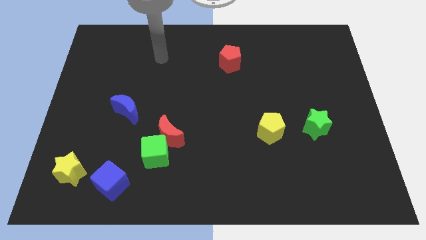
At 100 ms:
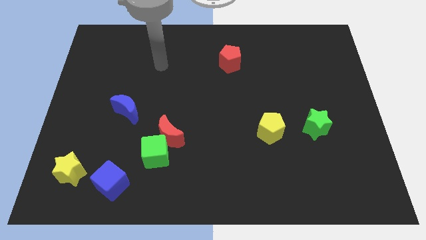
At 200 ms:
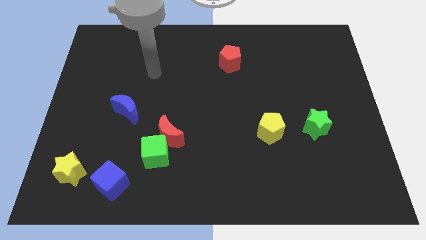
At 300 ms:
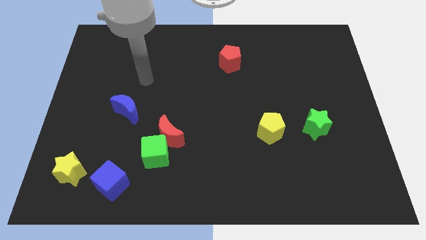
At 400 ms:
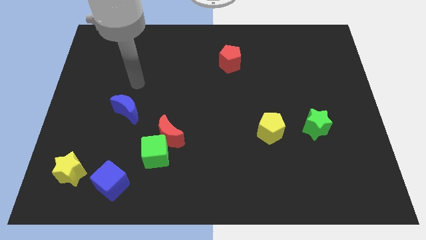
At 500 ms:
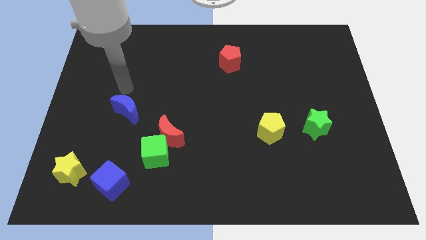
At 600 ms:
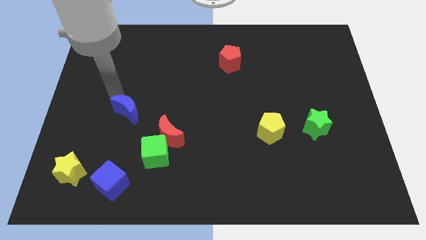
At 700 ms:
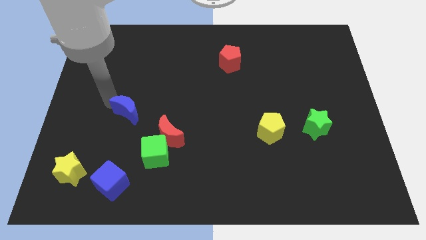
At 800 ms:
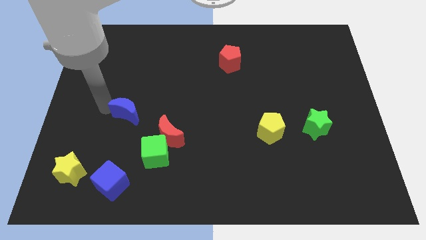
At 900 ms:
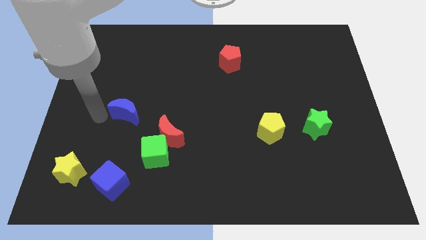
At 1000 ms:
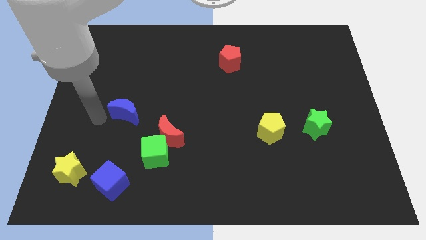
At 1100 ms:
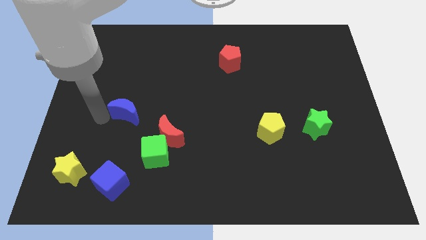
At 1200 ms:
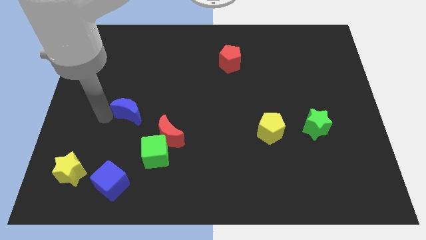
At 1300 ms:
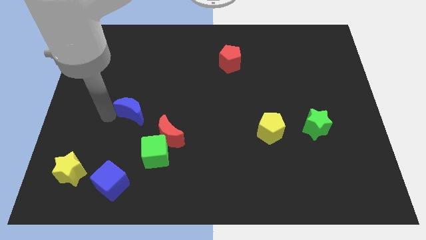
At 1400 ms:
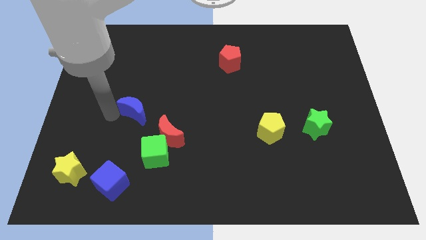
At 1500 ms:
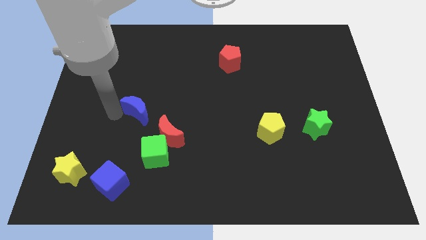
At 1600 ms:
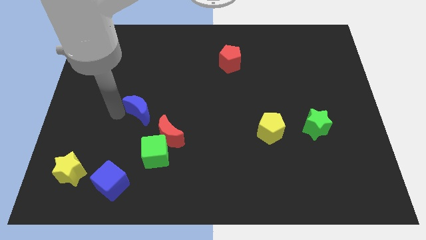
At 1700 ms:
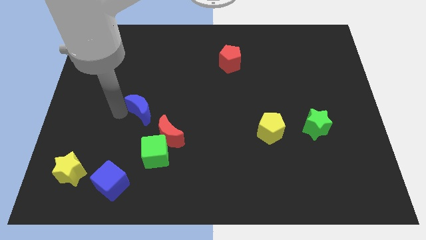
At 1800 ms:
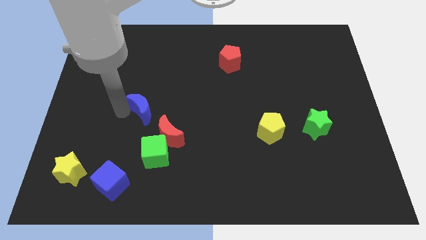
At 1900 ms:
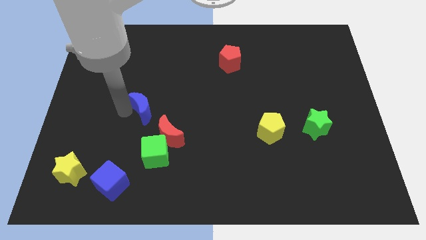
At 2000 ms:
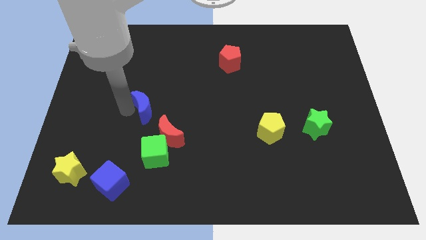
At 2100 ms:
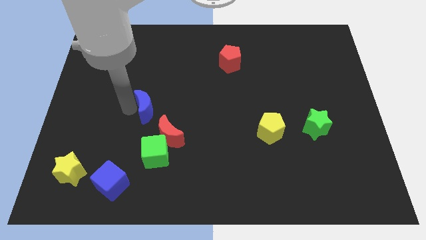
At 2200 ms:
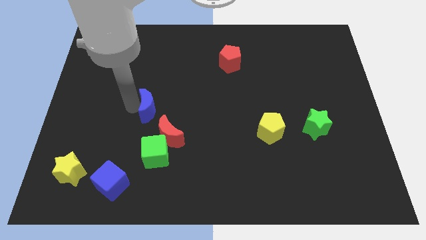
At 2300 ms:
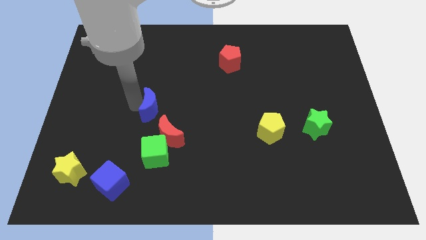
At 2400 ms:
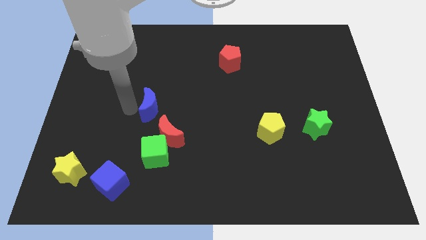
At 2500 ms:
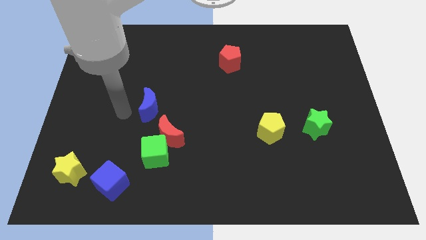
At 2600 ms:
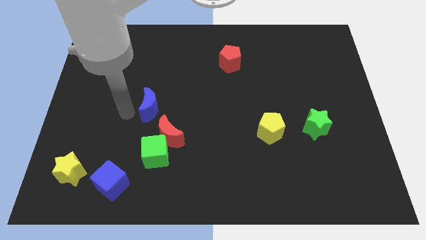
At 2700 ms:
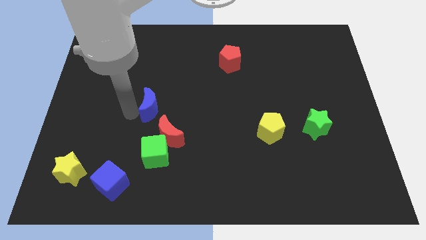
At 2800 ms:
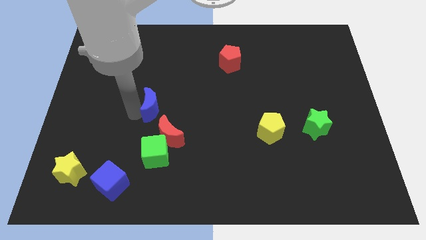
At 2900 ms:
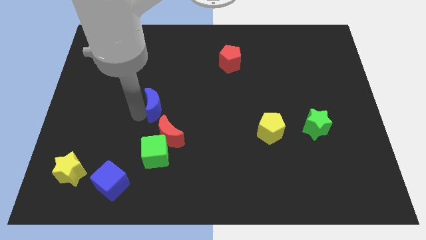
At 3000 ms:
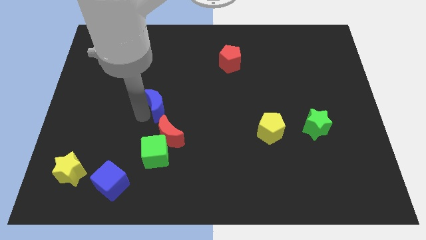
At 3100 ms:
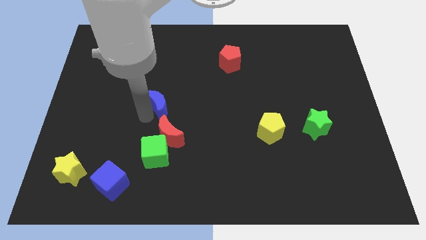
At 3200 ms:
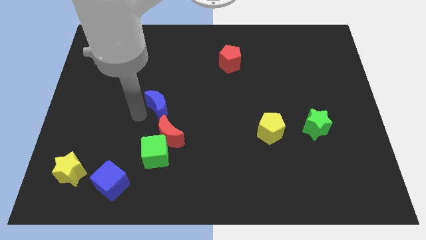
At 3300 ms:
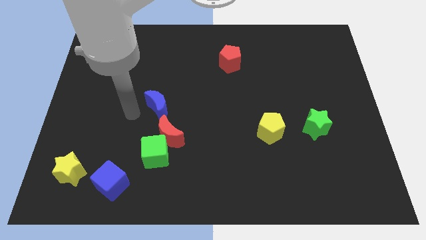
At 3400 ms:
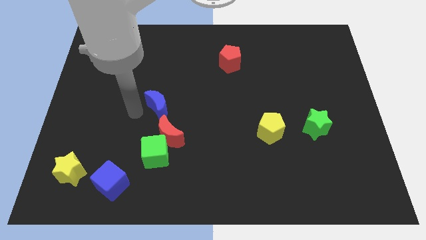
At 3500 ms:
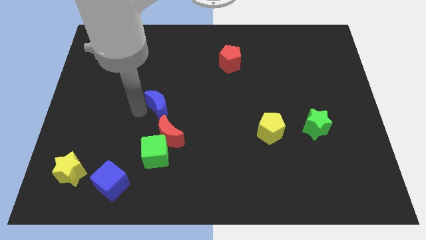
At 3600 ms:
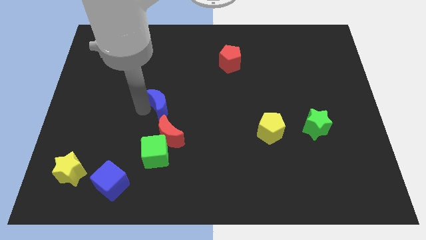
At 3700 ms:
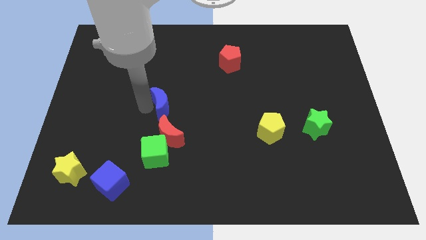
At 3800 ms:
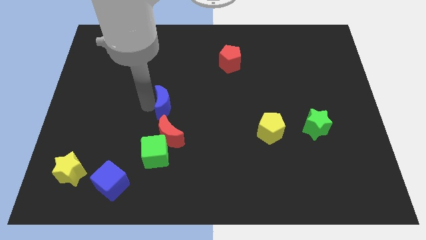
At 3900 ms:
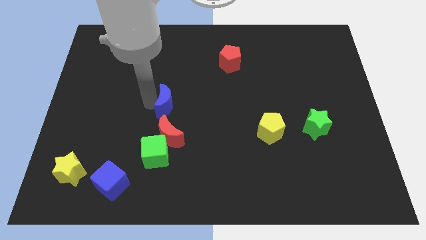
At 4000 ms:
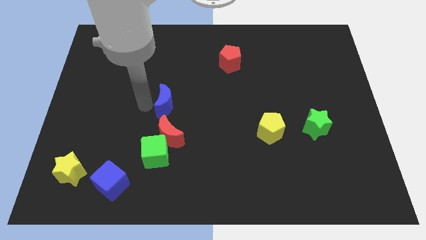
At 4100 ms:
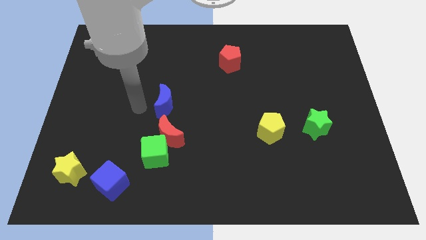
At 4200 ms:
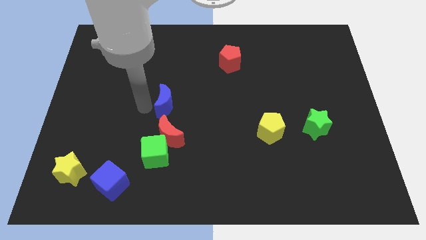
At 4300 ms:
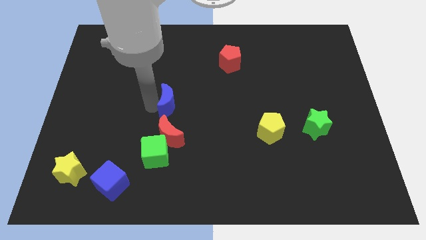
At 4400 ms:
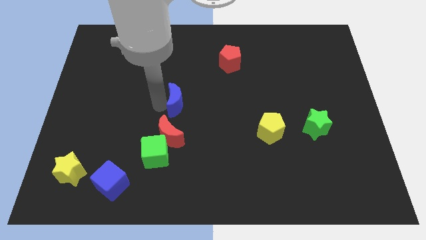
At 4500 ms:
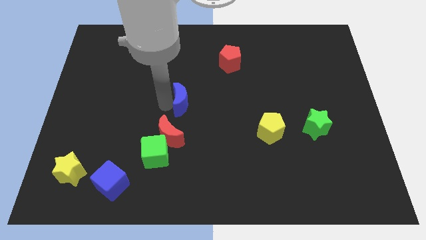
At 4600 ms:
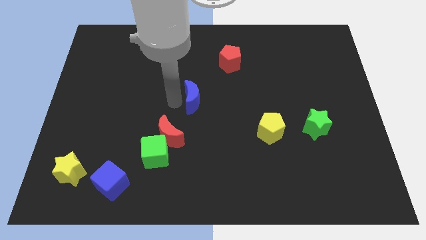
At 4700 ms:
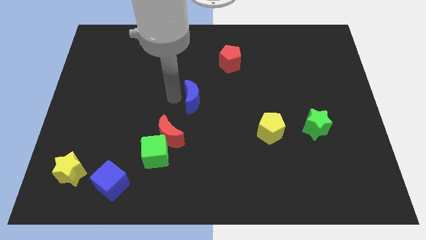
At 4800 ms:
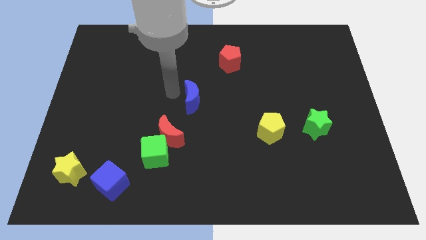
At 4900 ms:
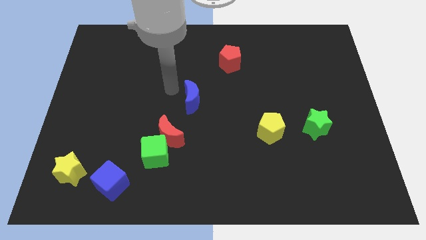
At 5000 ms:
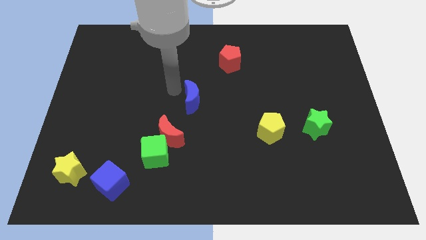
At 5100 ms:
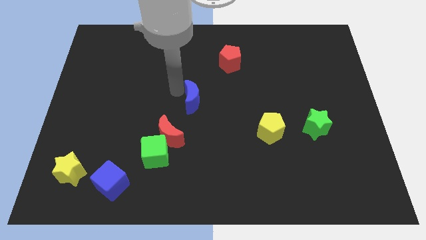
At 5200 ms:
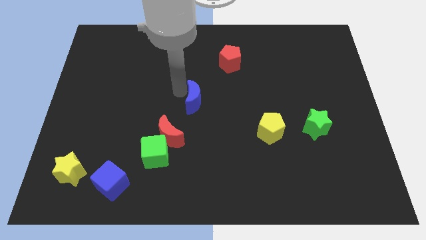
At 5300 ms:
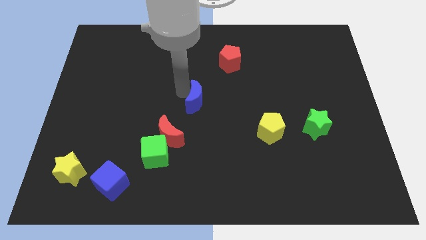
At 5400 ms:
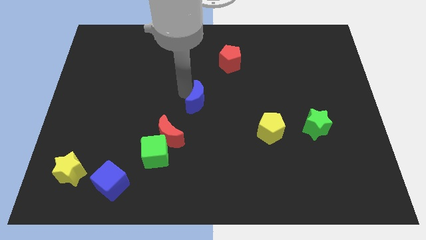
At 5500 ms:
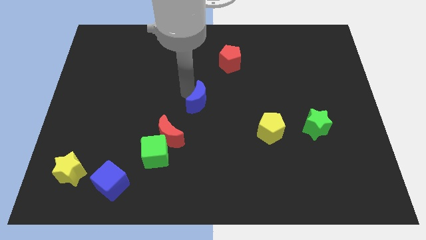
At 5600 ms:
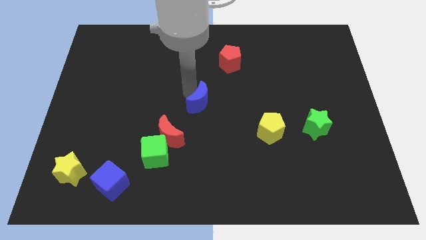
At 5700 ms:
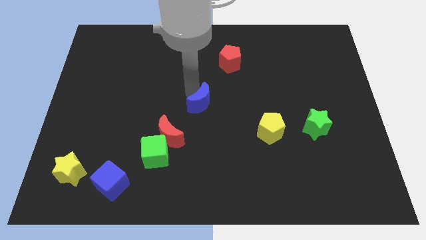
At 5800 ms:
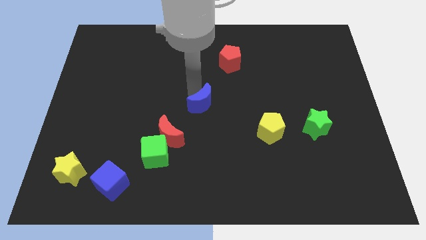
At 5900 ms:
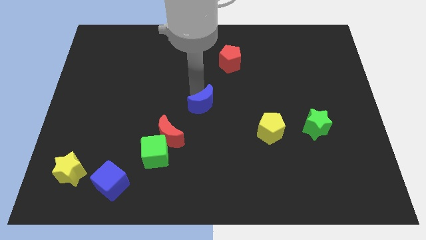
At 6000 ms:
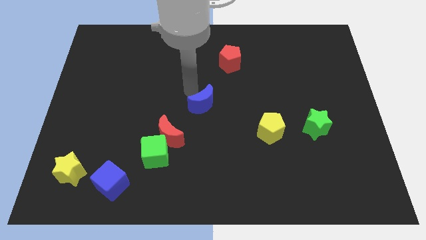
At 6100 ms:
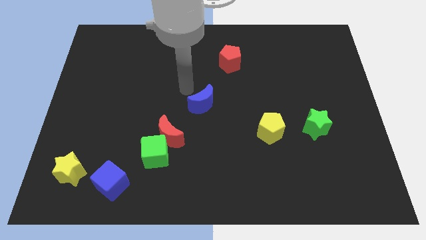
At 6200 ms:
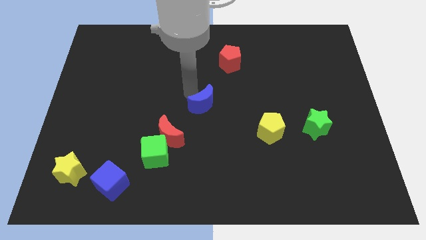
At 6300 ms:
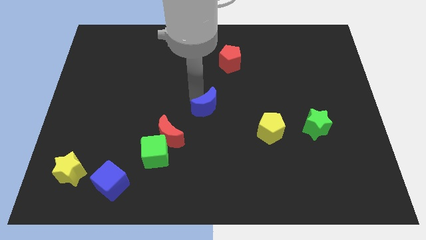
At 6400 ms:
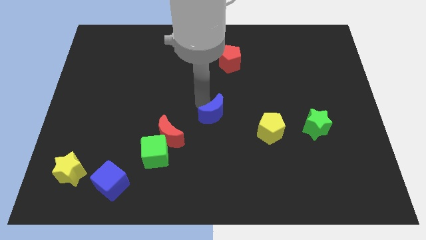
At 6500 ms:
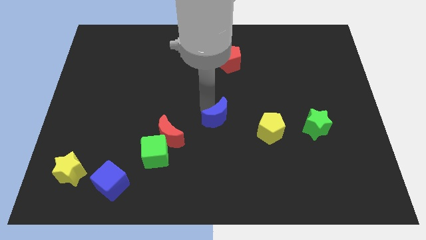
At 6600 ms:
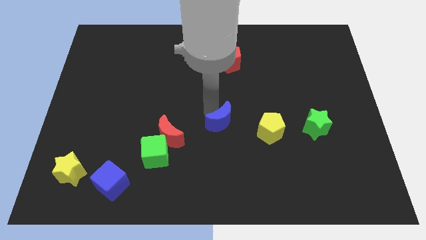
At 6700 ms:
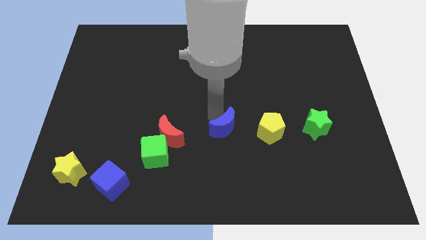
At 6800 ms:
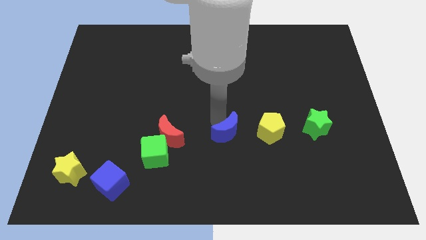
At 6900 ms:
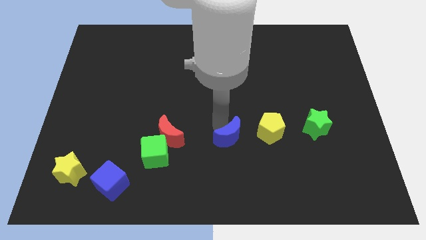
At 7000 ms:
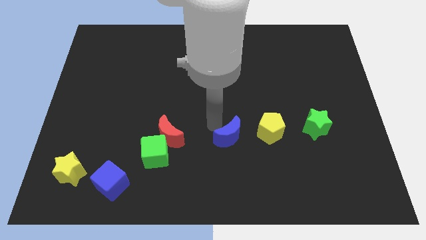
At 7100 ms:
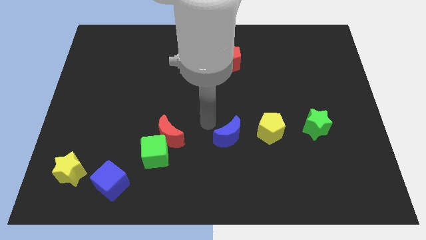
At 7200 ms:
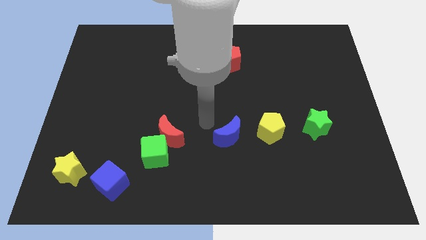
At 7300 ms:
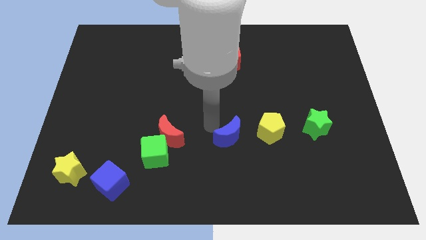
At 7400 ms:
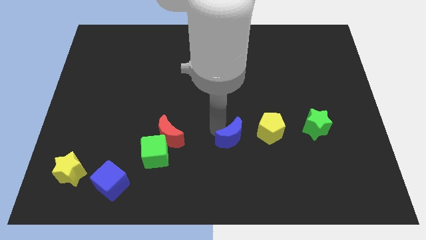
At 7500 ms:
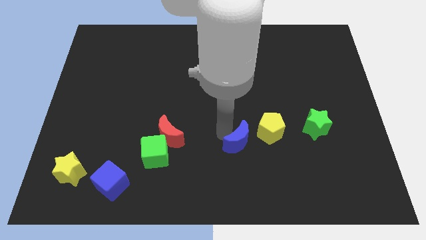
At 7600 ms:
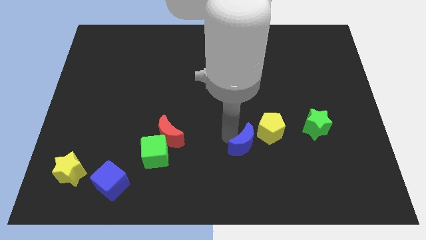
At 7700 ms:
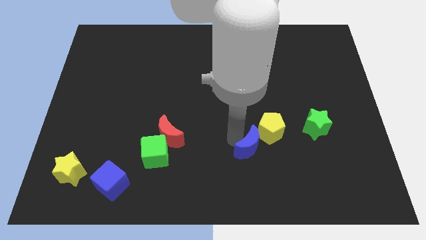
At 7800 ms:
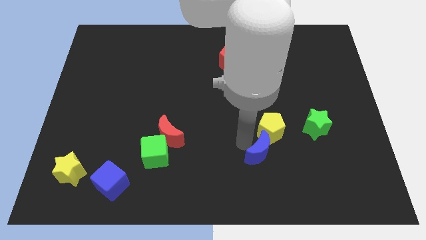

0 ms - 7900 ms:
slide the blue moon below the yellow pentagon

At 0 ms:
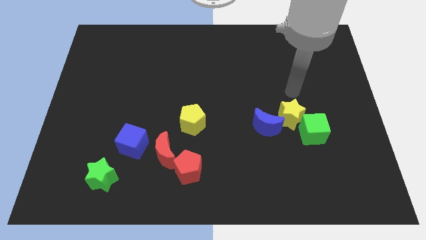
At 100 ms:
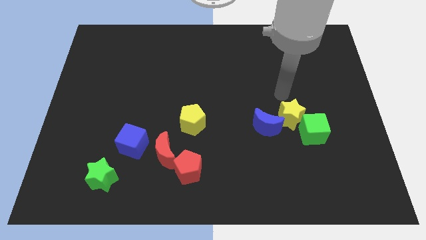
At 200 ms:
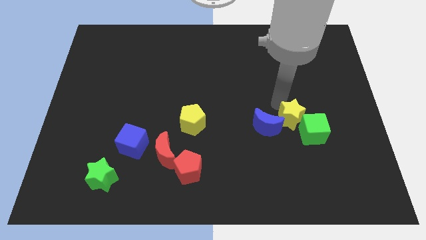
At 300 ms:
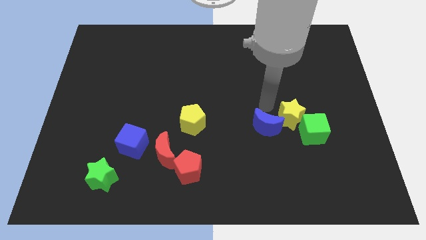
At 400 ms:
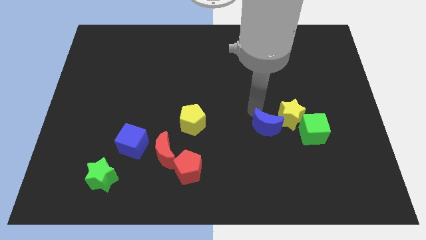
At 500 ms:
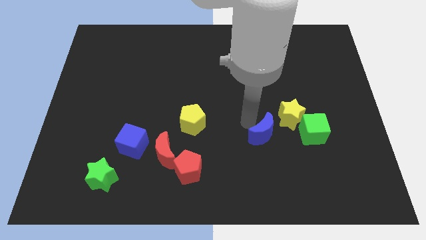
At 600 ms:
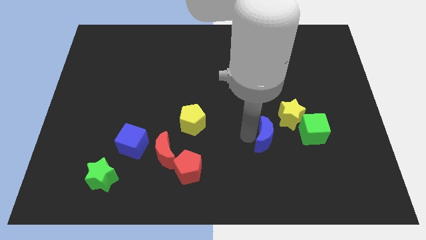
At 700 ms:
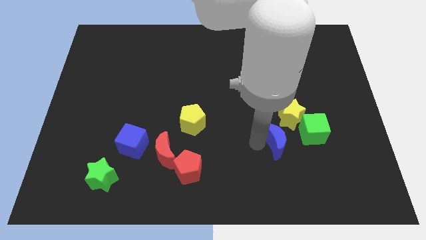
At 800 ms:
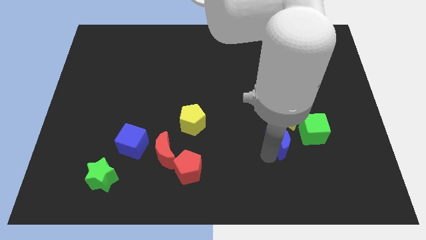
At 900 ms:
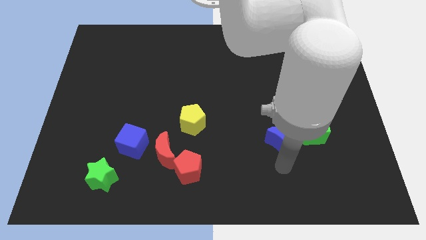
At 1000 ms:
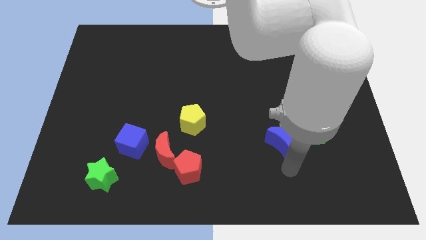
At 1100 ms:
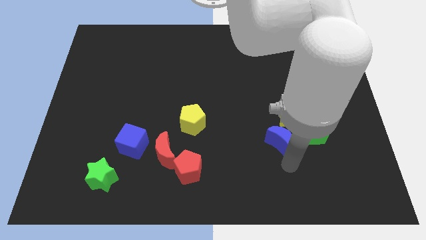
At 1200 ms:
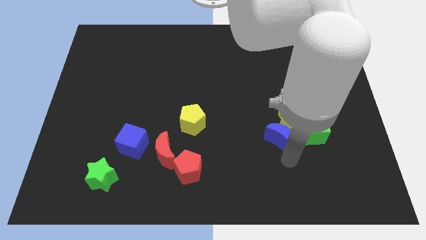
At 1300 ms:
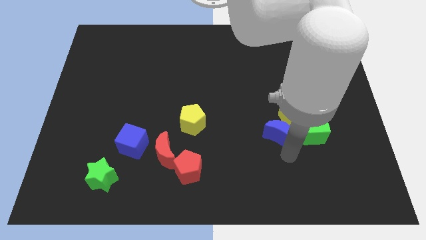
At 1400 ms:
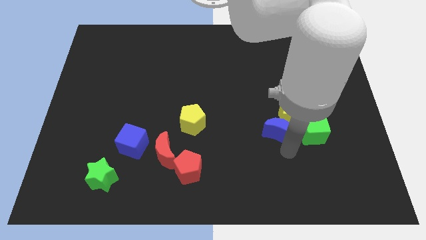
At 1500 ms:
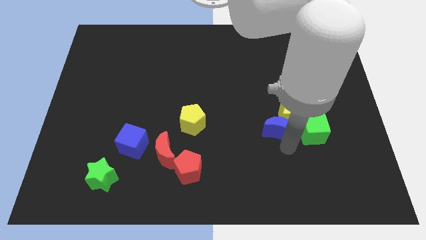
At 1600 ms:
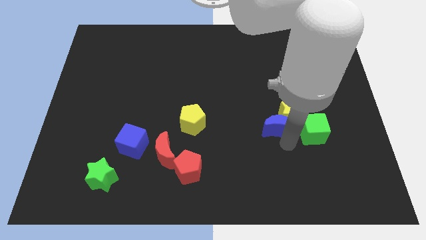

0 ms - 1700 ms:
put the blue moon to the top left side of the green cube
